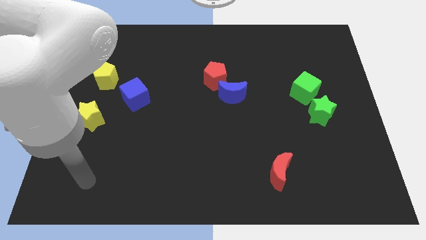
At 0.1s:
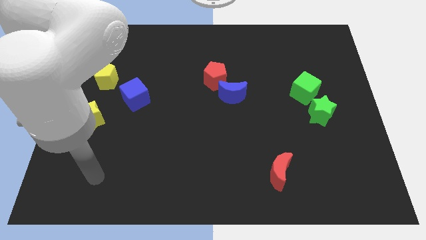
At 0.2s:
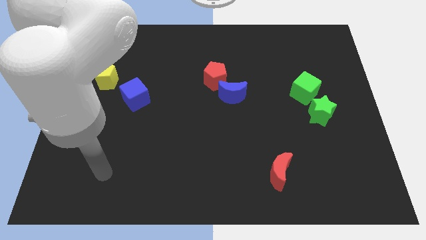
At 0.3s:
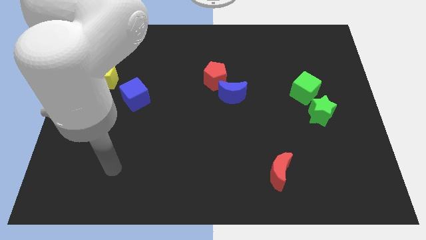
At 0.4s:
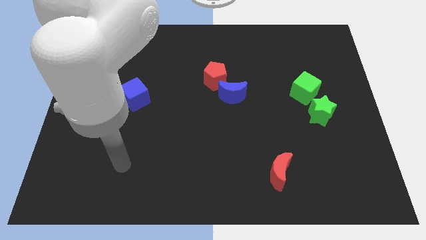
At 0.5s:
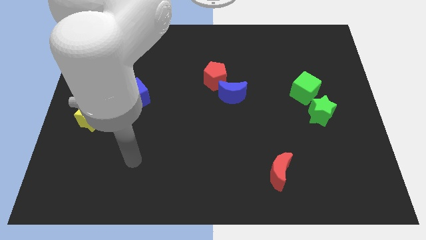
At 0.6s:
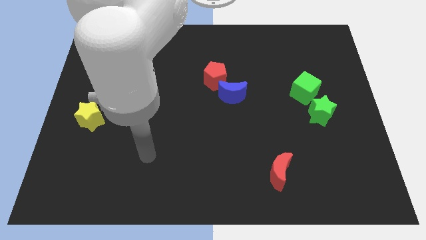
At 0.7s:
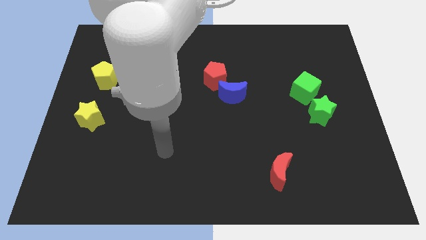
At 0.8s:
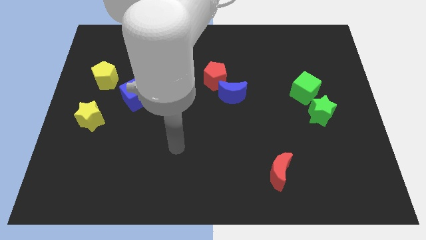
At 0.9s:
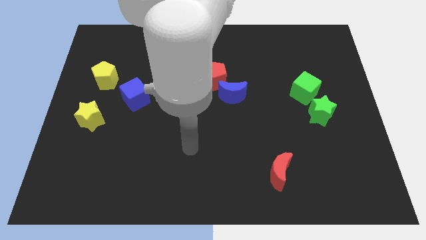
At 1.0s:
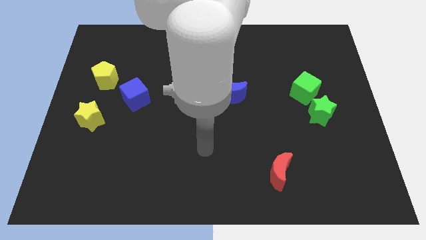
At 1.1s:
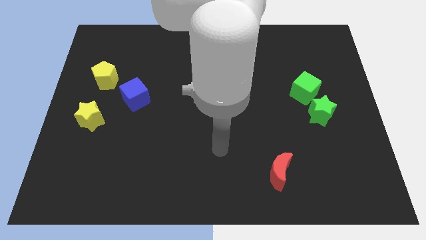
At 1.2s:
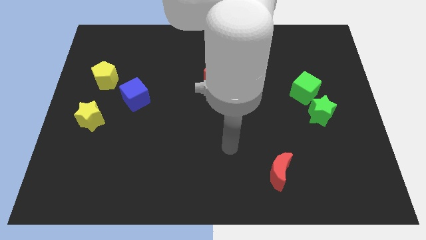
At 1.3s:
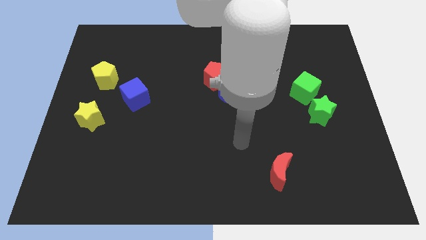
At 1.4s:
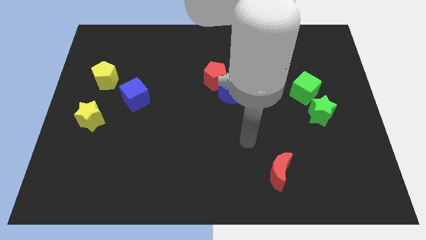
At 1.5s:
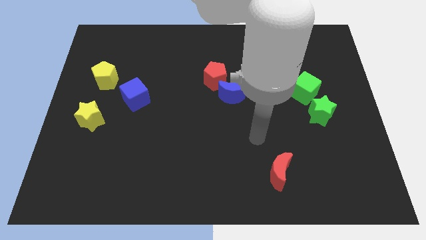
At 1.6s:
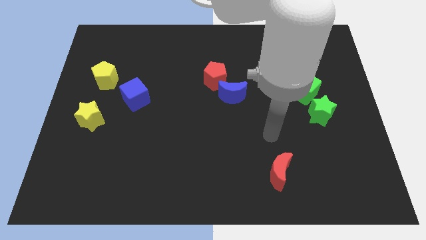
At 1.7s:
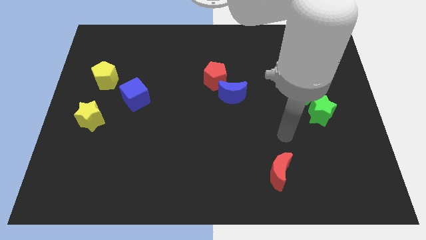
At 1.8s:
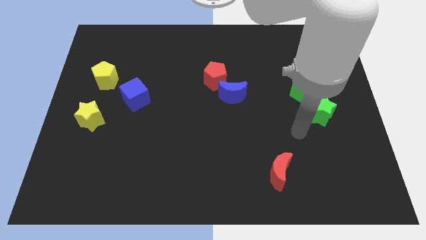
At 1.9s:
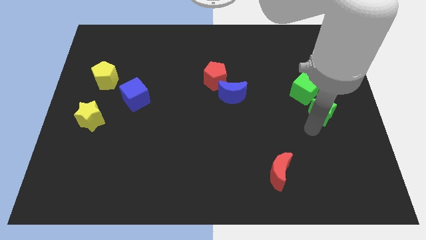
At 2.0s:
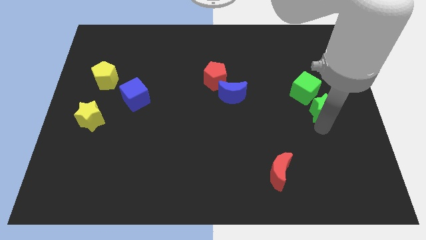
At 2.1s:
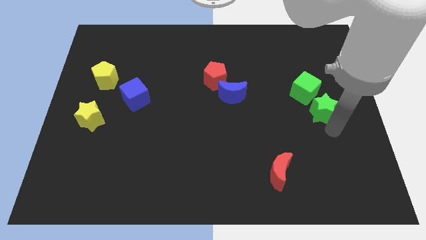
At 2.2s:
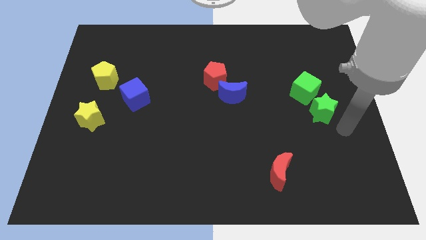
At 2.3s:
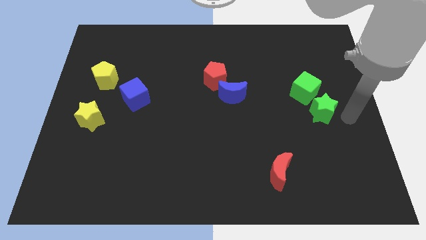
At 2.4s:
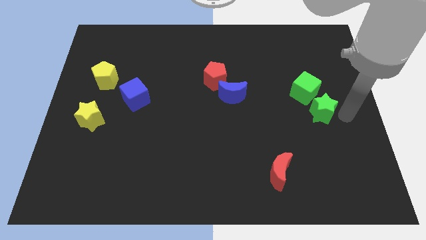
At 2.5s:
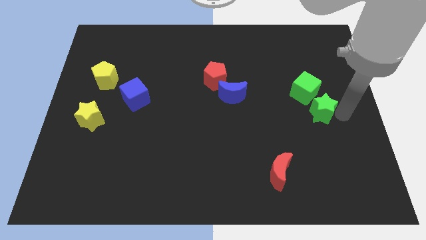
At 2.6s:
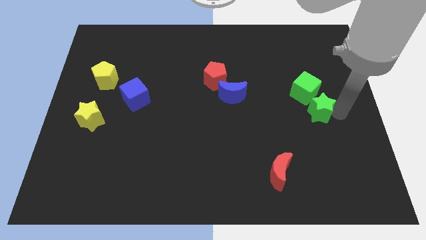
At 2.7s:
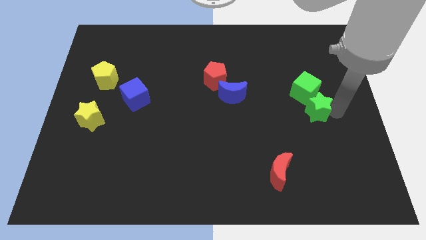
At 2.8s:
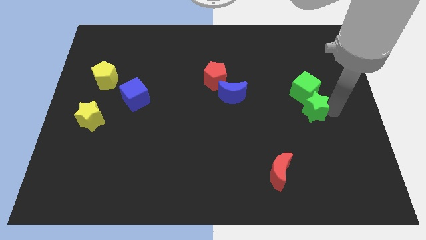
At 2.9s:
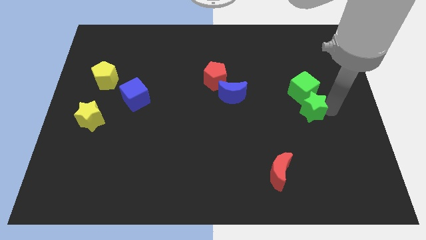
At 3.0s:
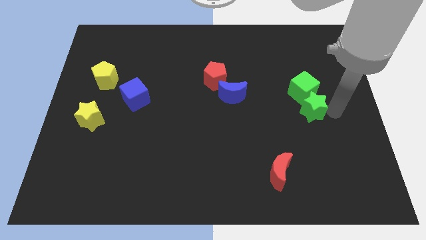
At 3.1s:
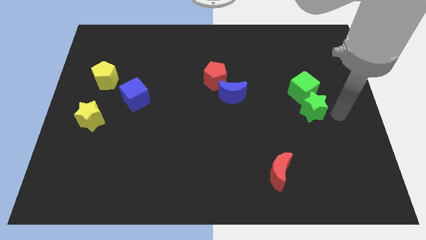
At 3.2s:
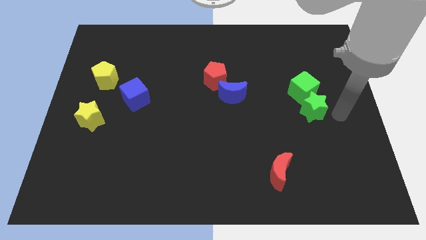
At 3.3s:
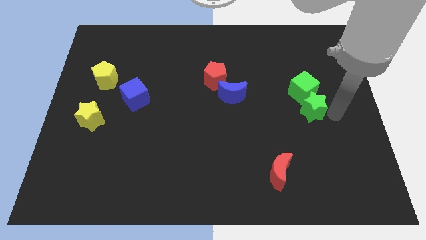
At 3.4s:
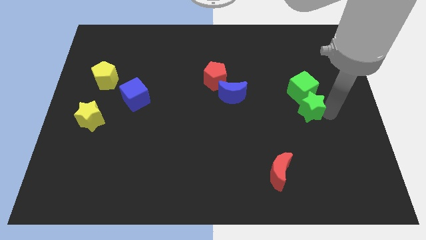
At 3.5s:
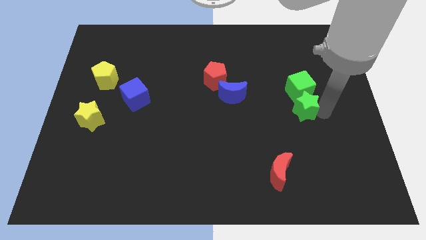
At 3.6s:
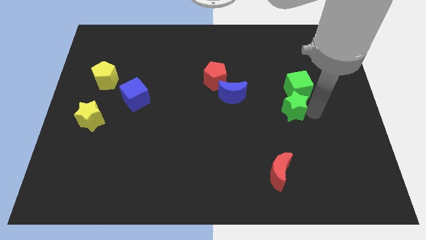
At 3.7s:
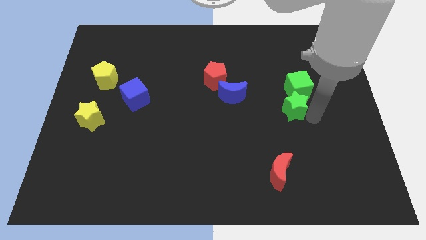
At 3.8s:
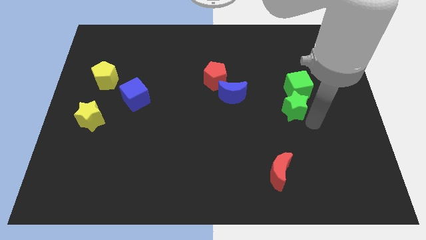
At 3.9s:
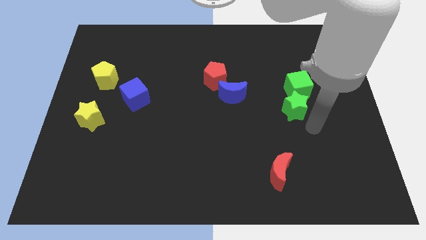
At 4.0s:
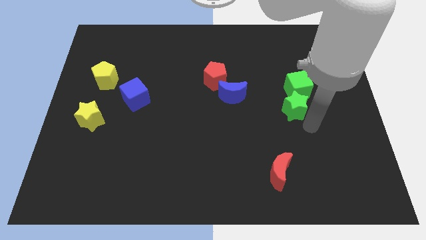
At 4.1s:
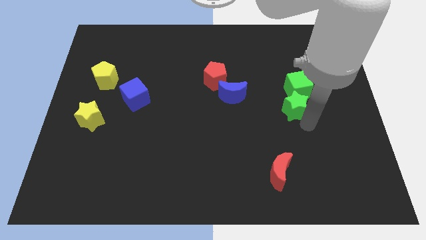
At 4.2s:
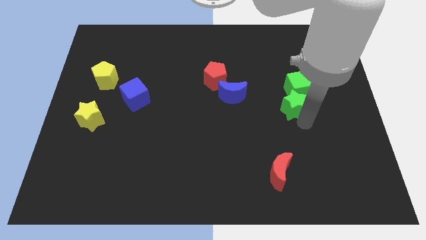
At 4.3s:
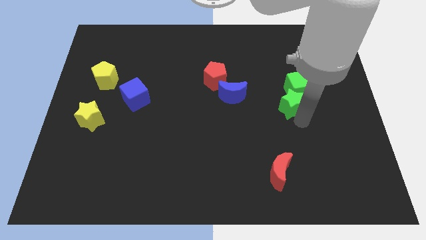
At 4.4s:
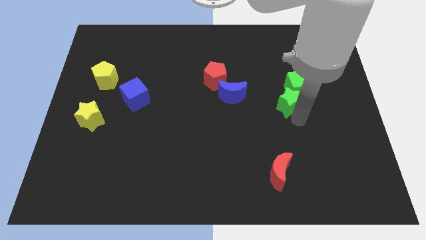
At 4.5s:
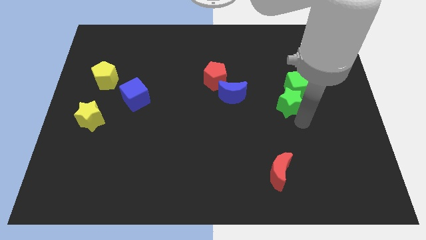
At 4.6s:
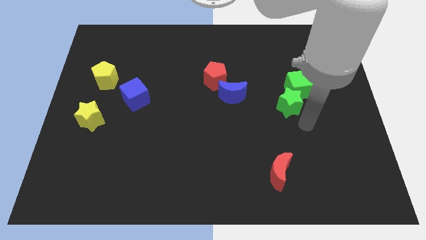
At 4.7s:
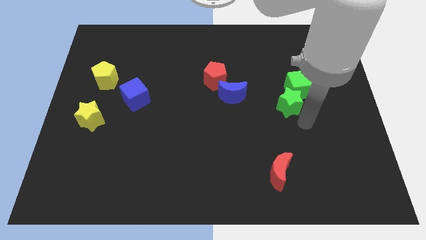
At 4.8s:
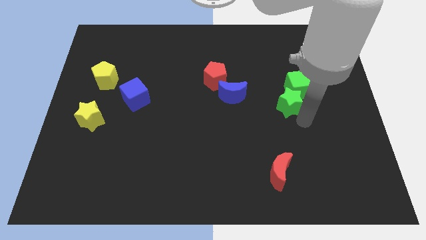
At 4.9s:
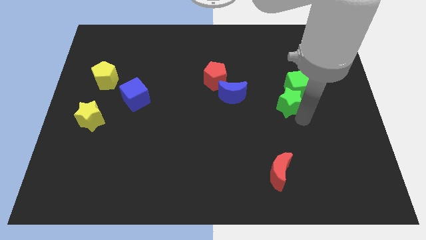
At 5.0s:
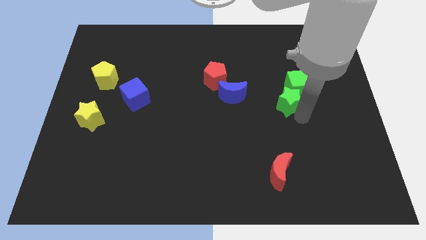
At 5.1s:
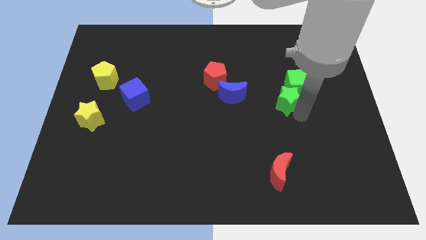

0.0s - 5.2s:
push the green star slightly up and left

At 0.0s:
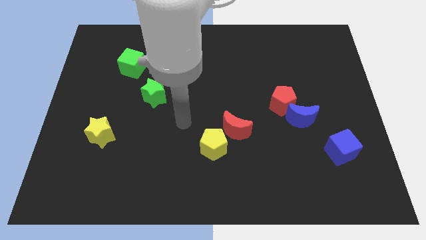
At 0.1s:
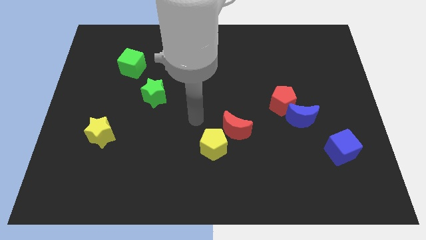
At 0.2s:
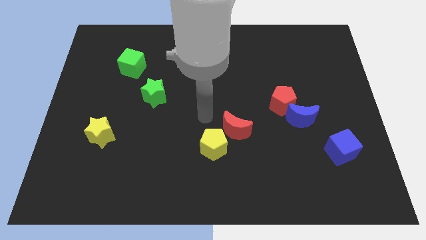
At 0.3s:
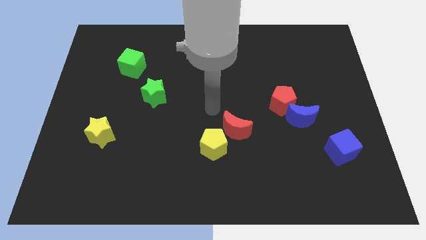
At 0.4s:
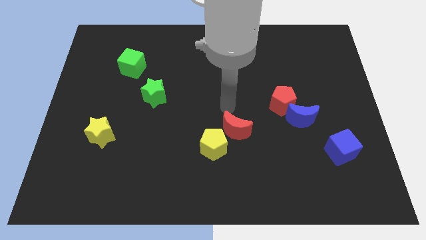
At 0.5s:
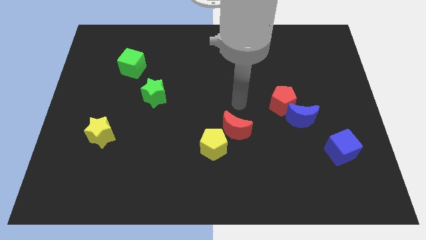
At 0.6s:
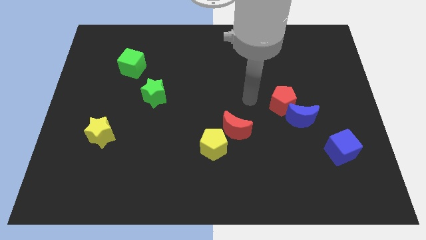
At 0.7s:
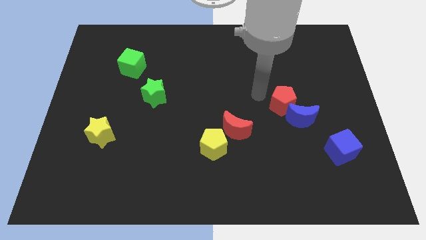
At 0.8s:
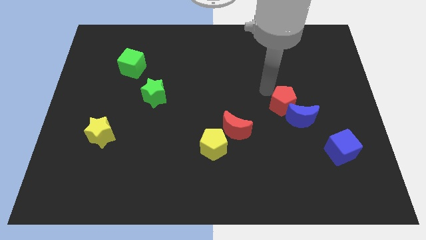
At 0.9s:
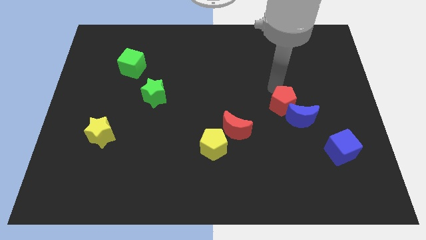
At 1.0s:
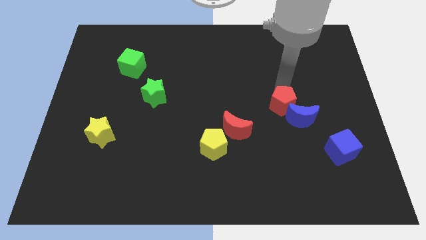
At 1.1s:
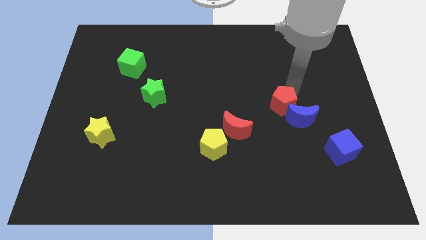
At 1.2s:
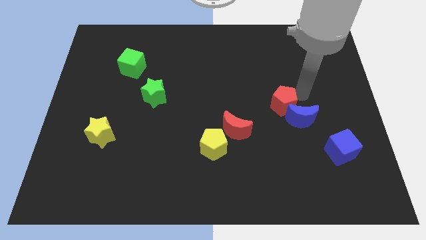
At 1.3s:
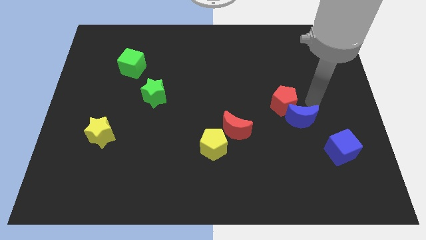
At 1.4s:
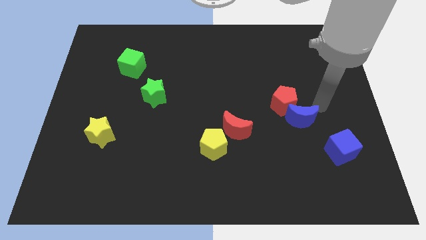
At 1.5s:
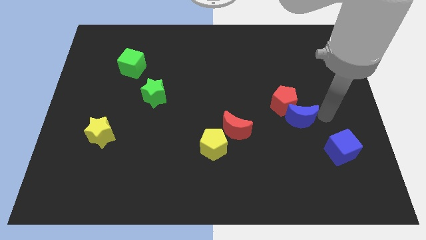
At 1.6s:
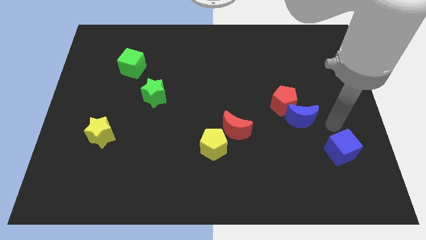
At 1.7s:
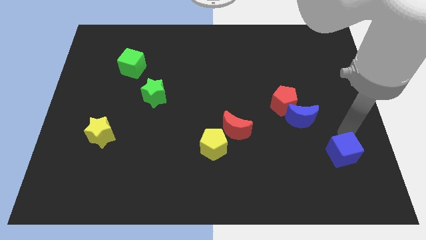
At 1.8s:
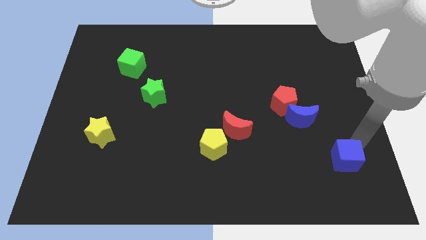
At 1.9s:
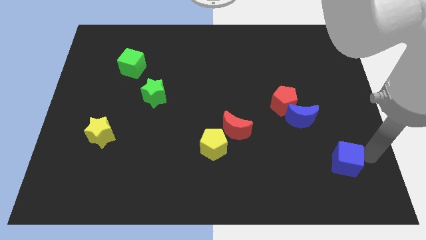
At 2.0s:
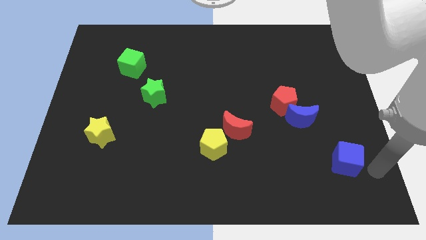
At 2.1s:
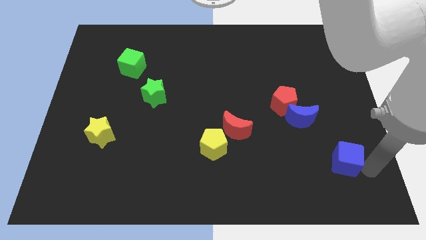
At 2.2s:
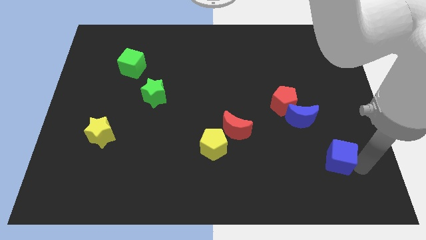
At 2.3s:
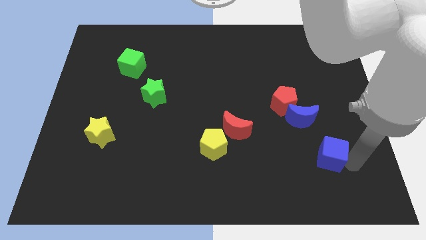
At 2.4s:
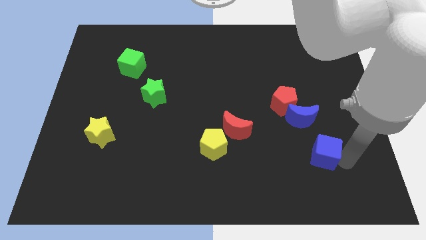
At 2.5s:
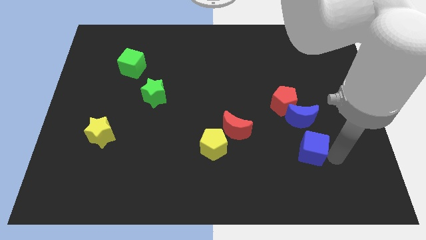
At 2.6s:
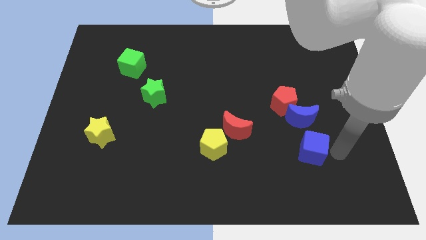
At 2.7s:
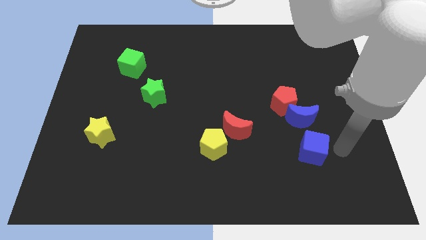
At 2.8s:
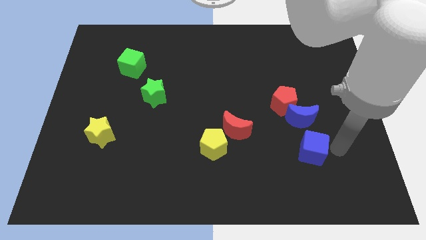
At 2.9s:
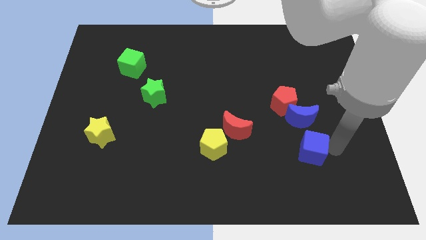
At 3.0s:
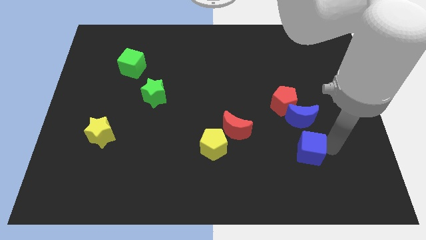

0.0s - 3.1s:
push the blue cube somewhat to the left
